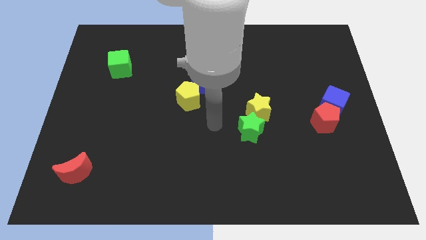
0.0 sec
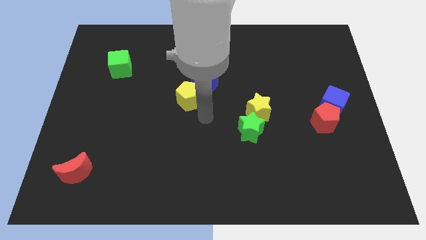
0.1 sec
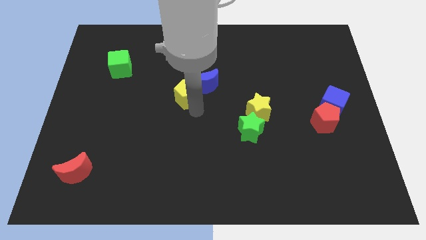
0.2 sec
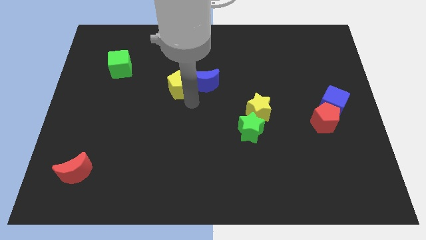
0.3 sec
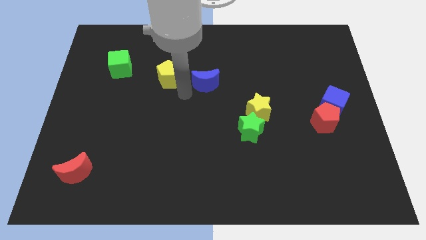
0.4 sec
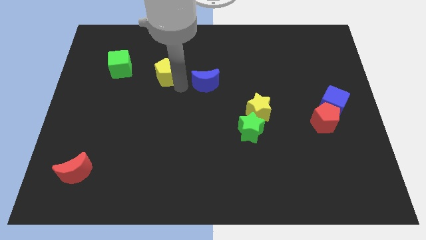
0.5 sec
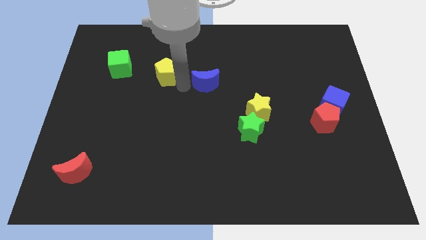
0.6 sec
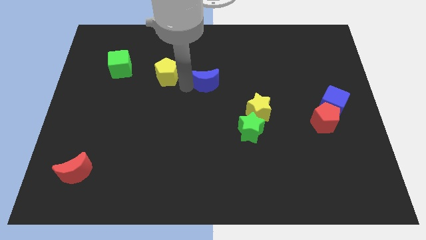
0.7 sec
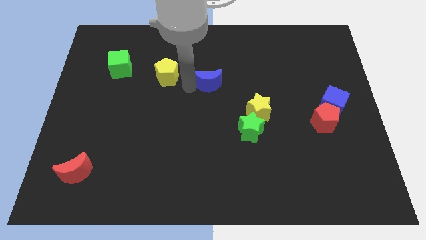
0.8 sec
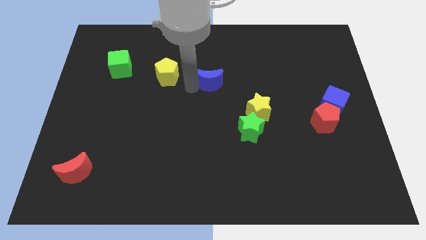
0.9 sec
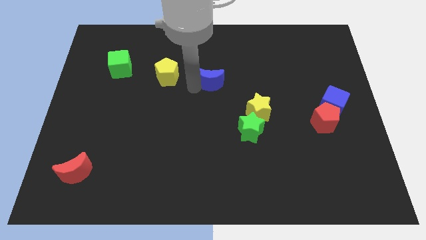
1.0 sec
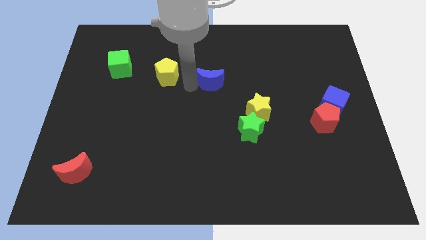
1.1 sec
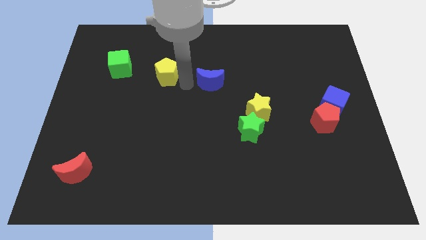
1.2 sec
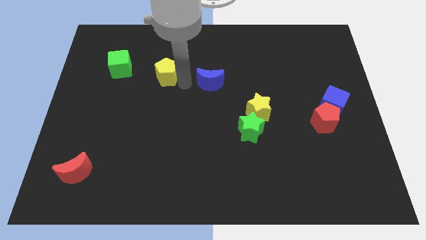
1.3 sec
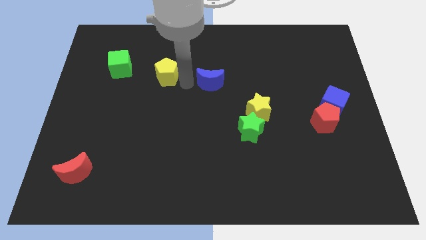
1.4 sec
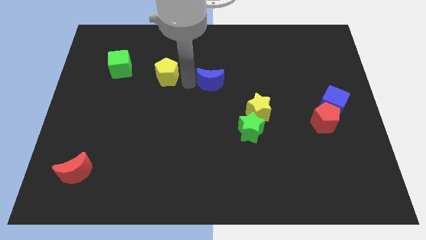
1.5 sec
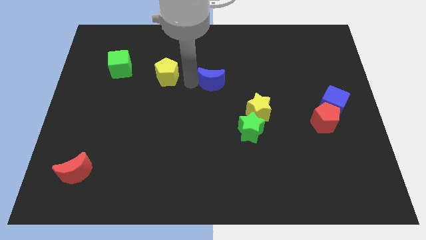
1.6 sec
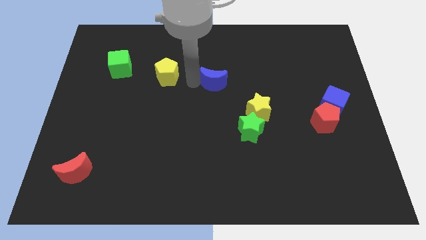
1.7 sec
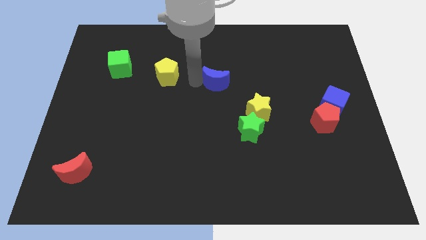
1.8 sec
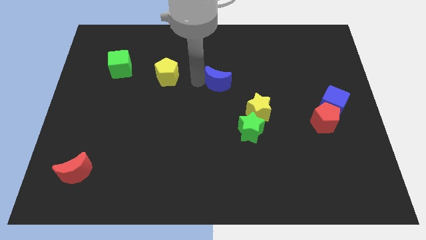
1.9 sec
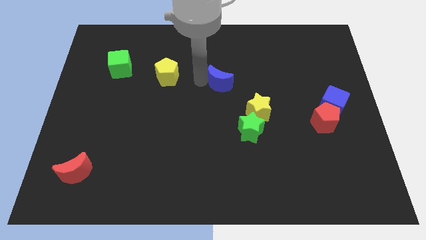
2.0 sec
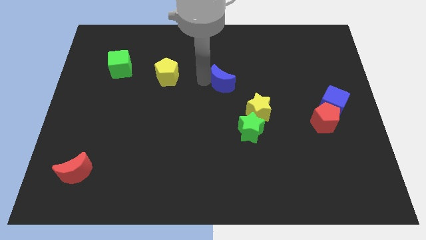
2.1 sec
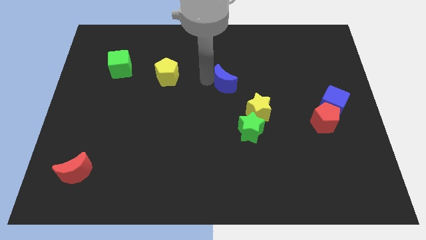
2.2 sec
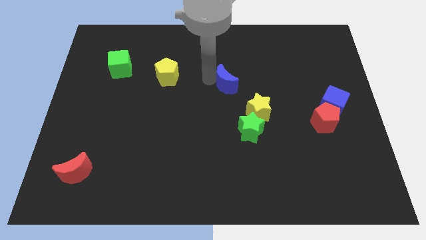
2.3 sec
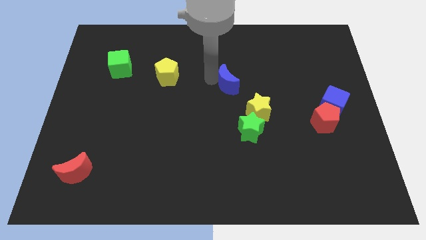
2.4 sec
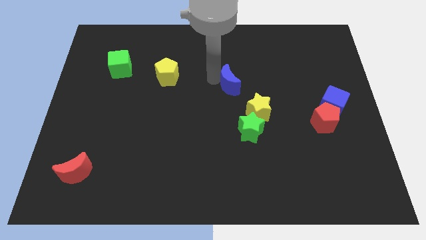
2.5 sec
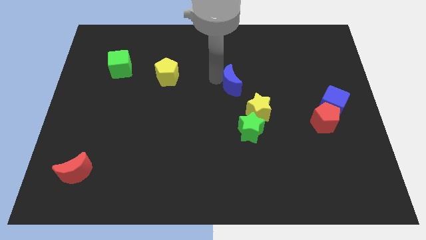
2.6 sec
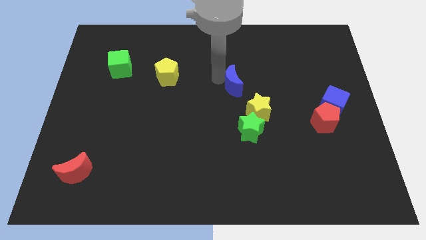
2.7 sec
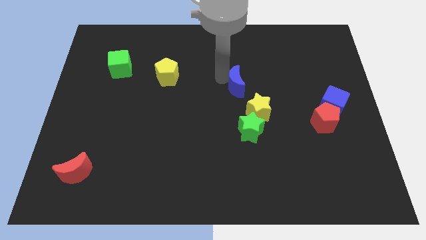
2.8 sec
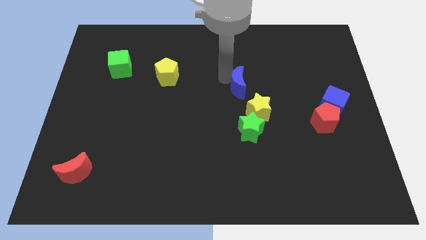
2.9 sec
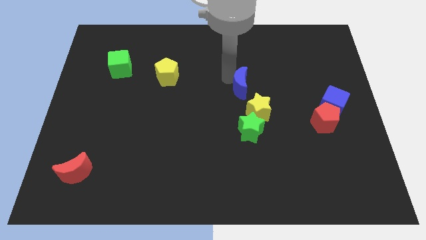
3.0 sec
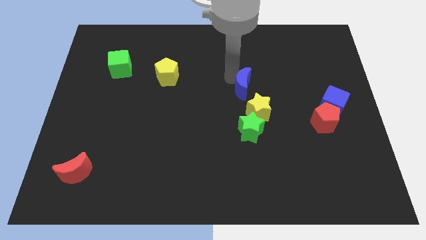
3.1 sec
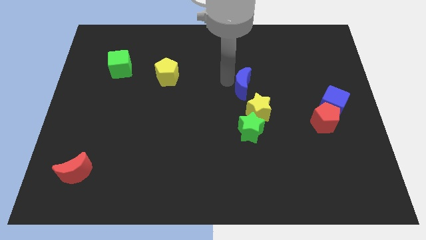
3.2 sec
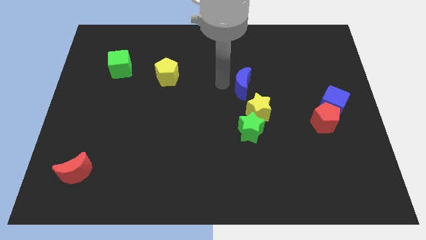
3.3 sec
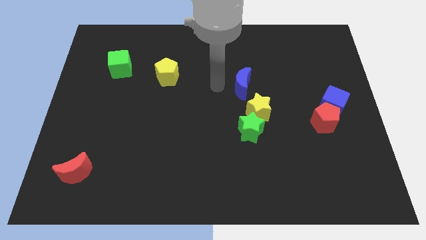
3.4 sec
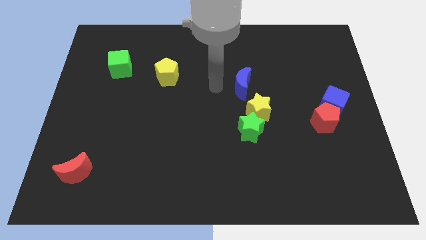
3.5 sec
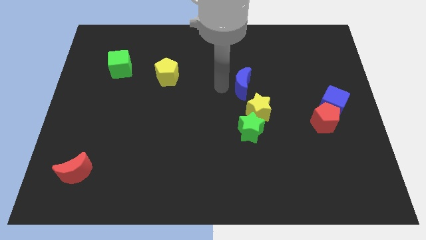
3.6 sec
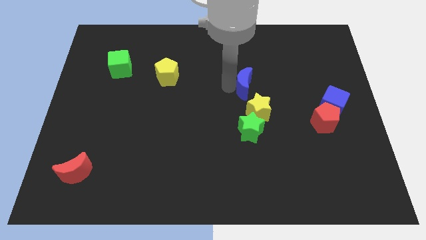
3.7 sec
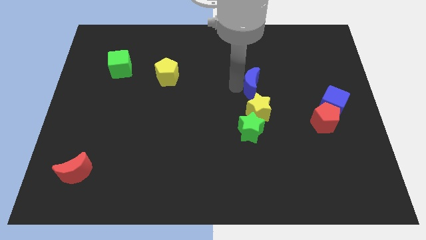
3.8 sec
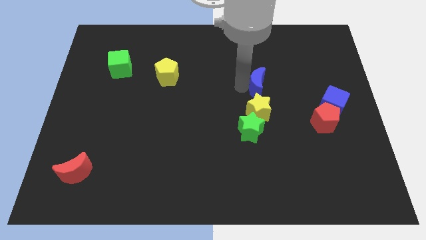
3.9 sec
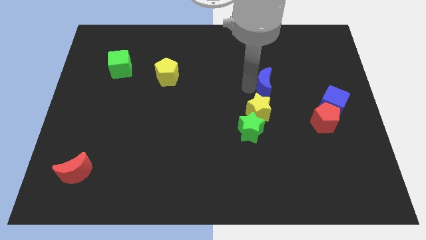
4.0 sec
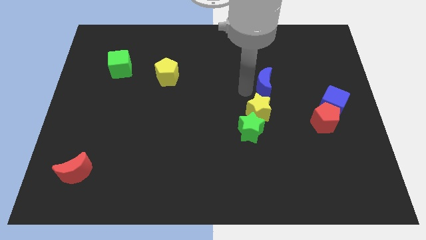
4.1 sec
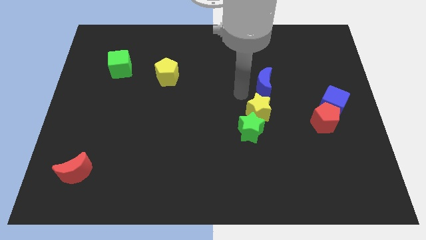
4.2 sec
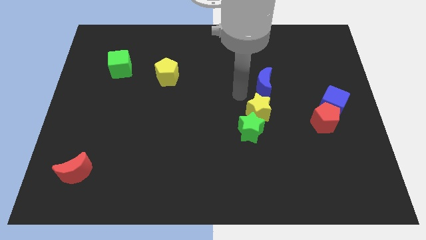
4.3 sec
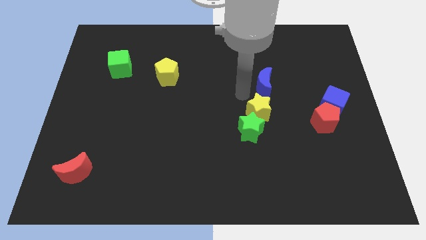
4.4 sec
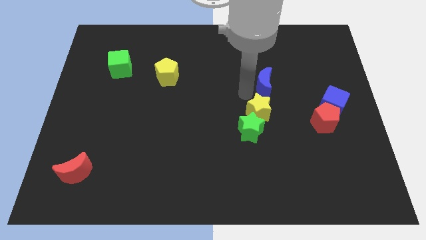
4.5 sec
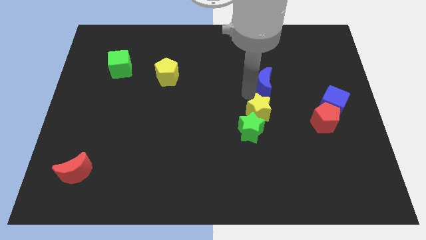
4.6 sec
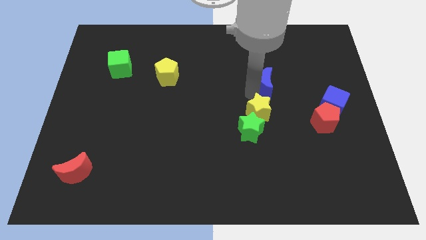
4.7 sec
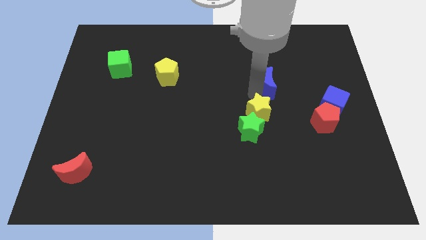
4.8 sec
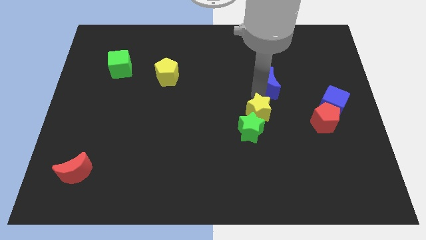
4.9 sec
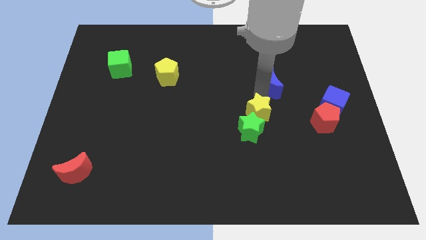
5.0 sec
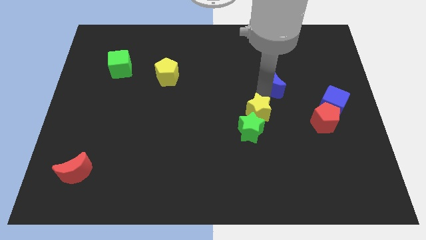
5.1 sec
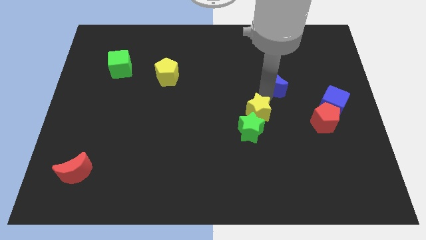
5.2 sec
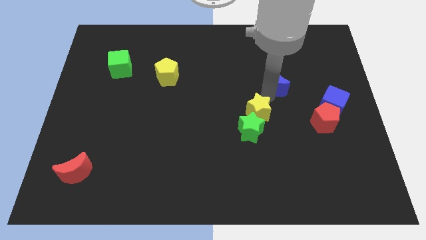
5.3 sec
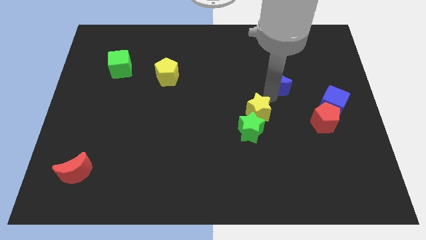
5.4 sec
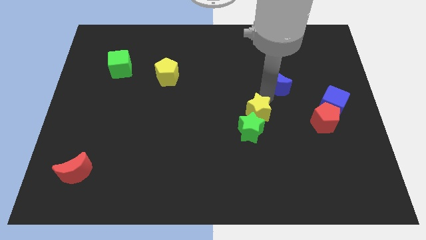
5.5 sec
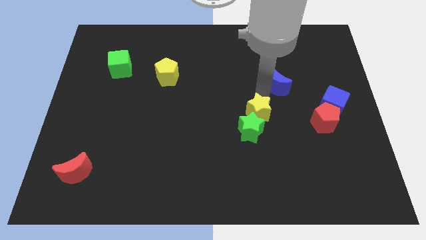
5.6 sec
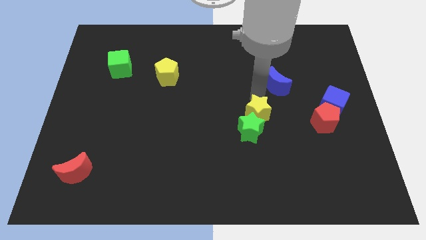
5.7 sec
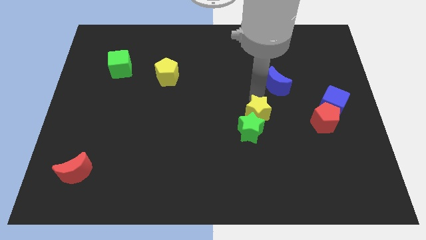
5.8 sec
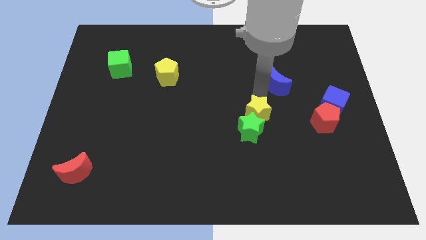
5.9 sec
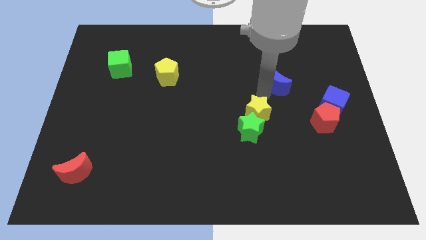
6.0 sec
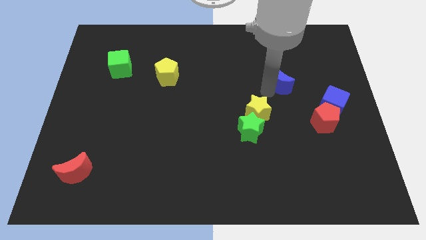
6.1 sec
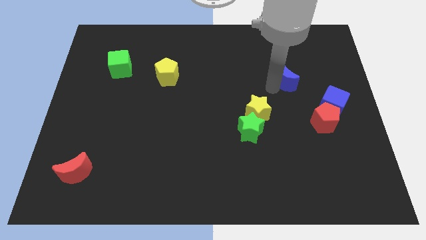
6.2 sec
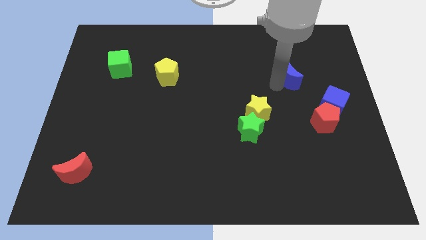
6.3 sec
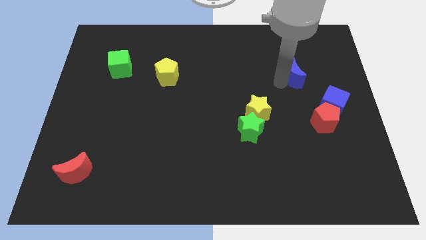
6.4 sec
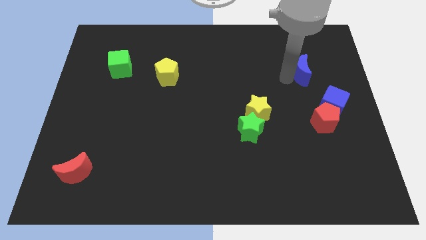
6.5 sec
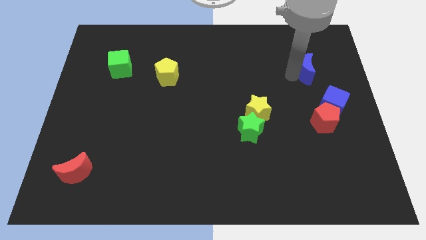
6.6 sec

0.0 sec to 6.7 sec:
slide the blue moon above the blue cube

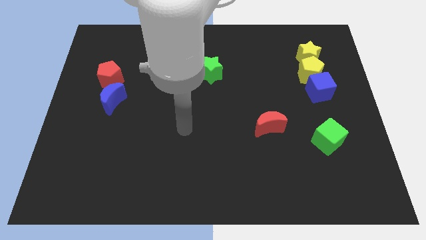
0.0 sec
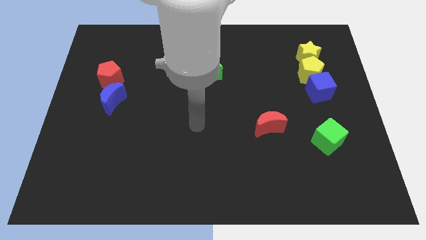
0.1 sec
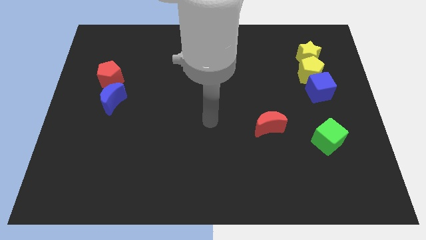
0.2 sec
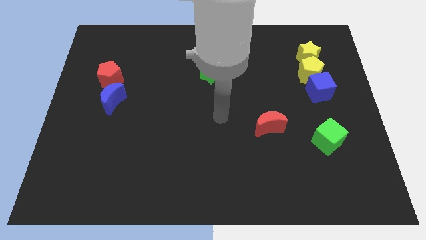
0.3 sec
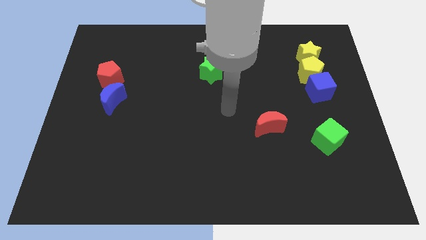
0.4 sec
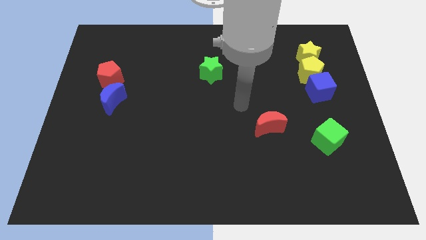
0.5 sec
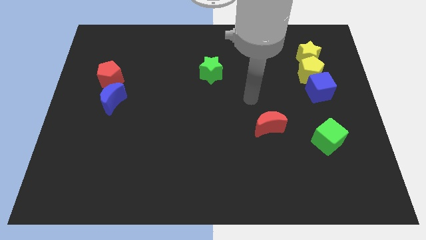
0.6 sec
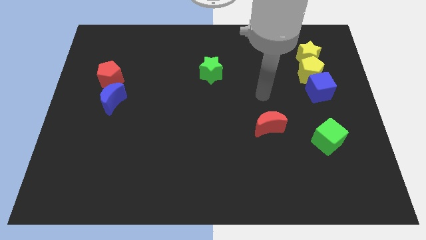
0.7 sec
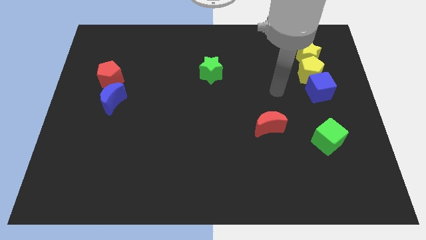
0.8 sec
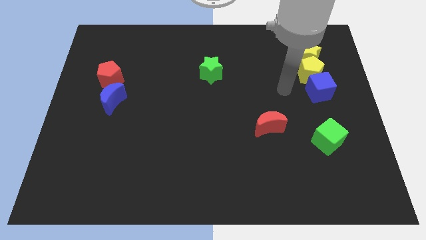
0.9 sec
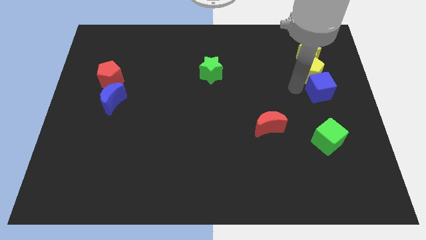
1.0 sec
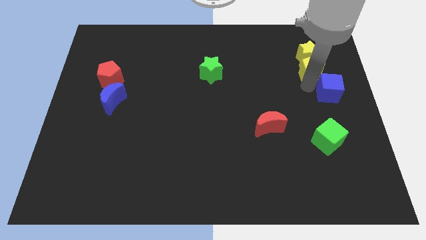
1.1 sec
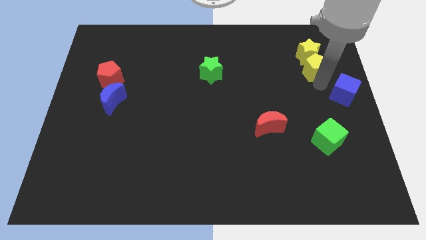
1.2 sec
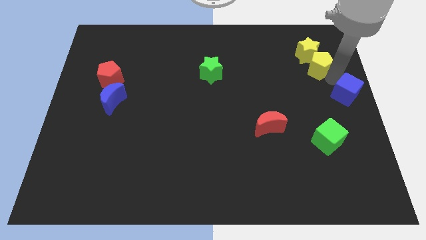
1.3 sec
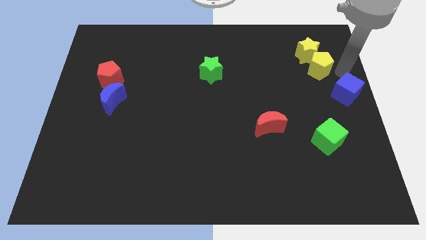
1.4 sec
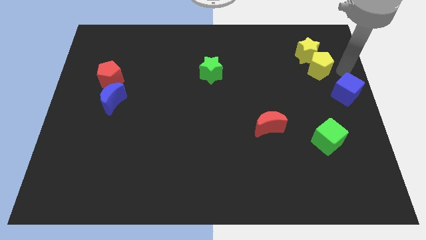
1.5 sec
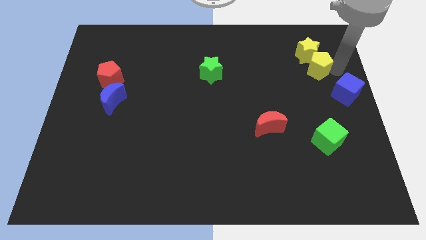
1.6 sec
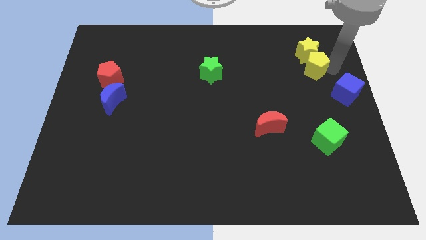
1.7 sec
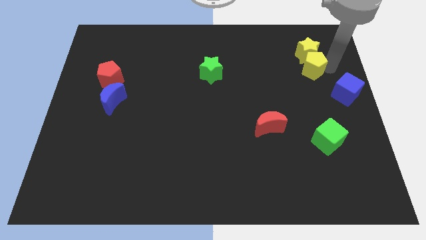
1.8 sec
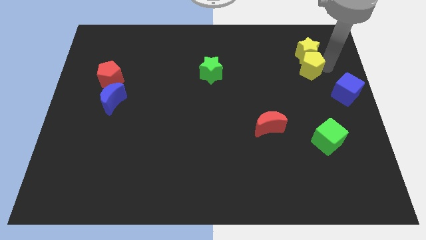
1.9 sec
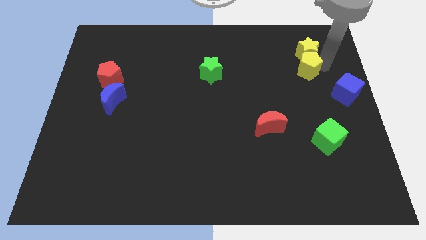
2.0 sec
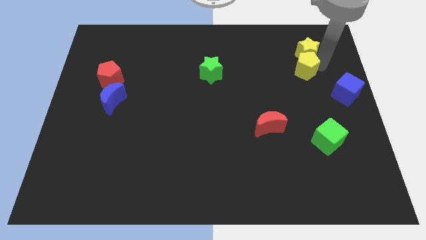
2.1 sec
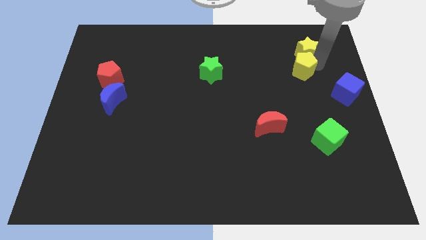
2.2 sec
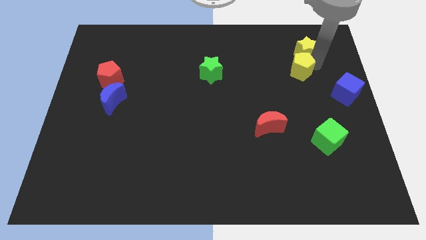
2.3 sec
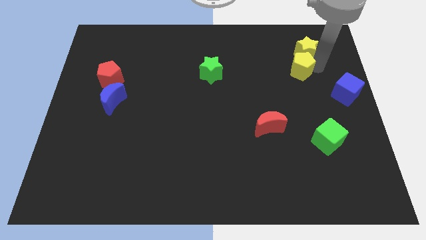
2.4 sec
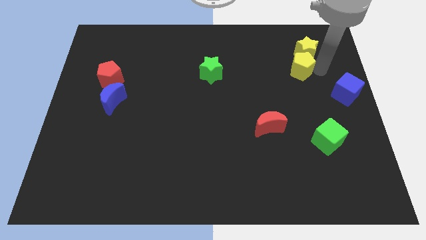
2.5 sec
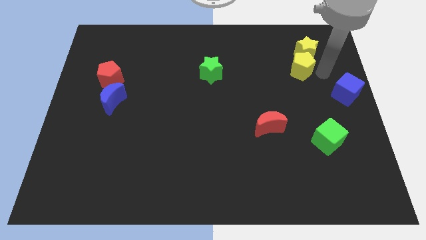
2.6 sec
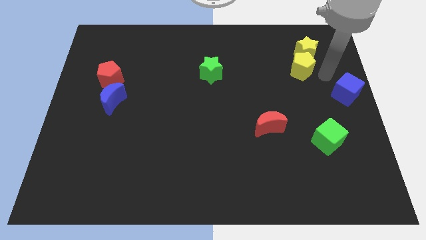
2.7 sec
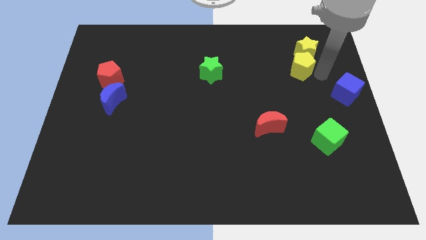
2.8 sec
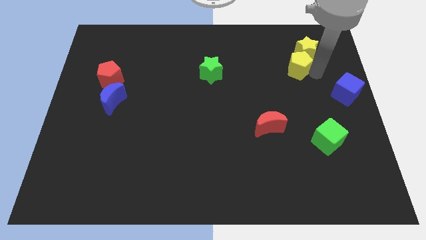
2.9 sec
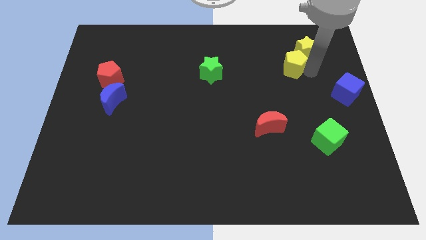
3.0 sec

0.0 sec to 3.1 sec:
put the yellow pentagon left of the yellow star
